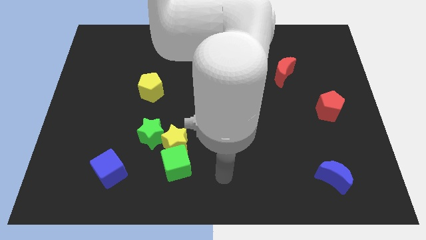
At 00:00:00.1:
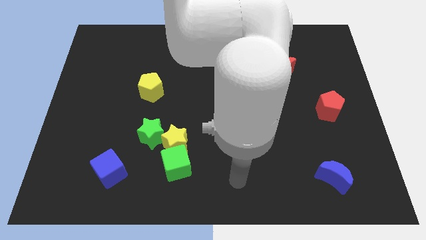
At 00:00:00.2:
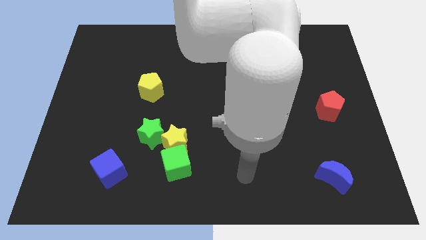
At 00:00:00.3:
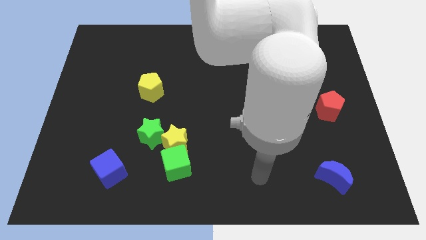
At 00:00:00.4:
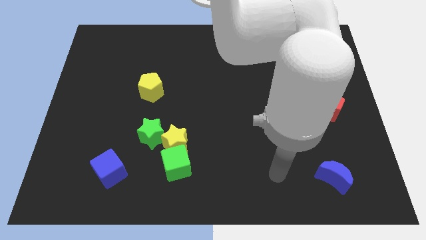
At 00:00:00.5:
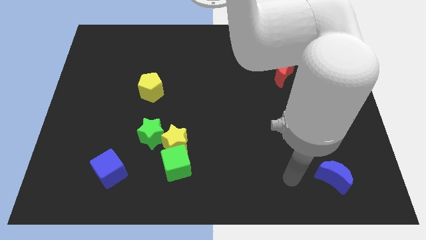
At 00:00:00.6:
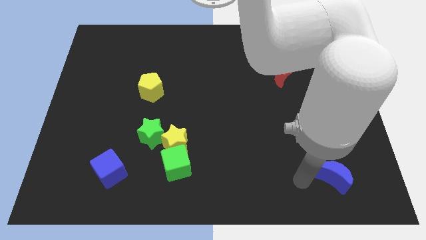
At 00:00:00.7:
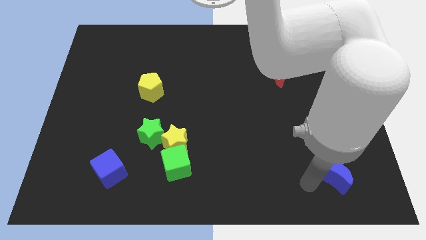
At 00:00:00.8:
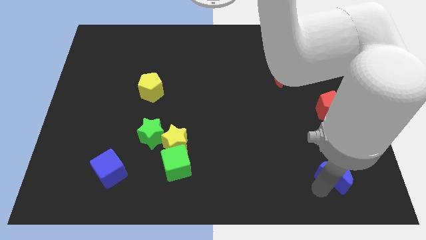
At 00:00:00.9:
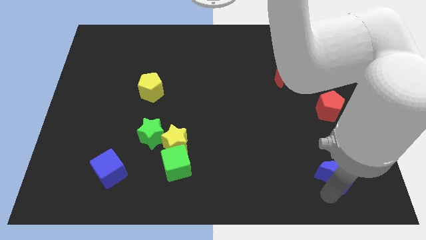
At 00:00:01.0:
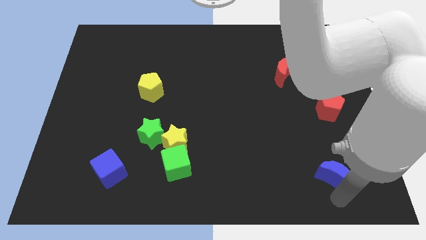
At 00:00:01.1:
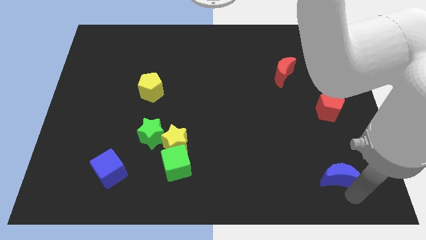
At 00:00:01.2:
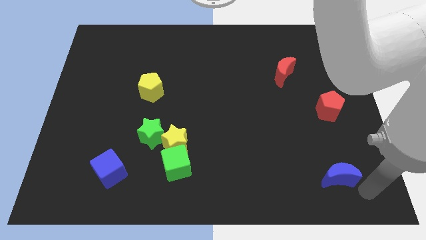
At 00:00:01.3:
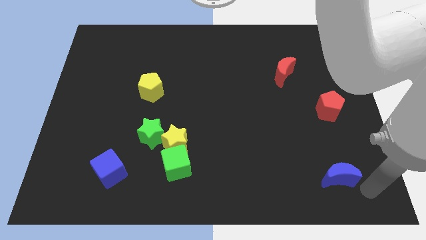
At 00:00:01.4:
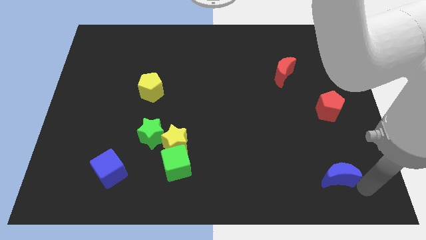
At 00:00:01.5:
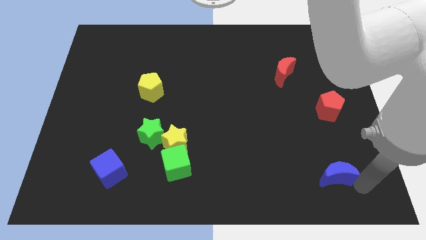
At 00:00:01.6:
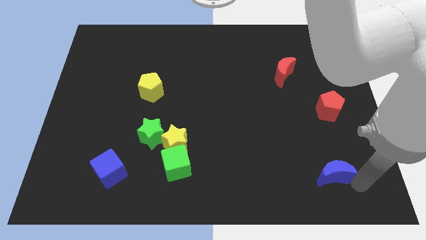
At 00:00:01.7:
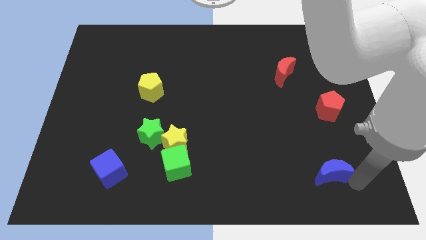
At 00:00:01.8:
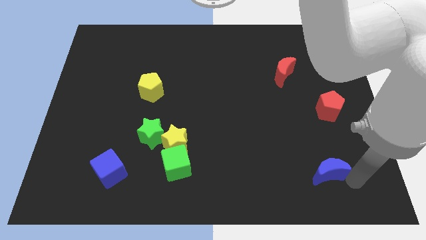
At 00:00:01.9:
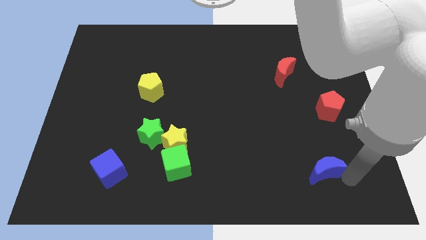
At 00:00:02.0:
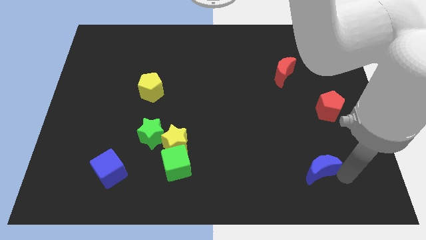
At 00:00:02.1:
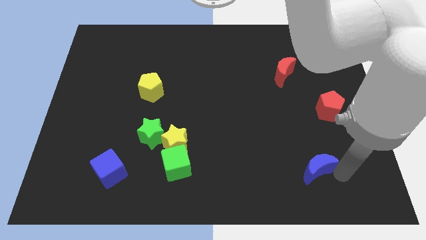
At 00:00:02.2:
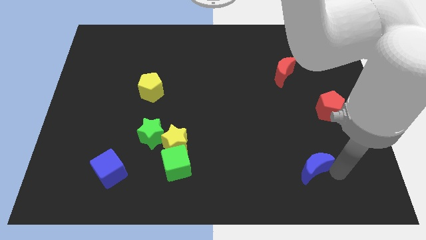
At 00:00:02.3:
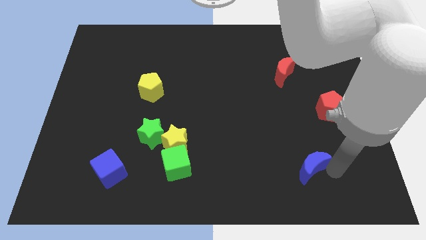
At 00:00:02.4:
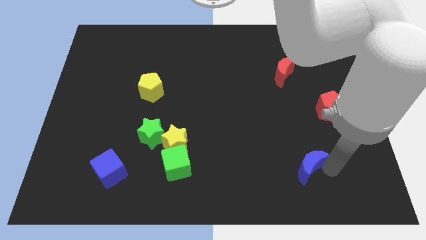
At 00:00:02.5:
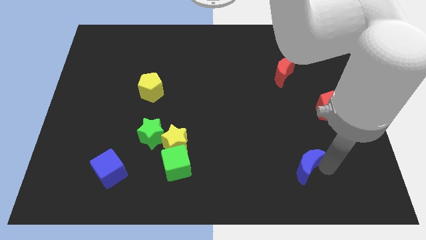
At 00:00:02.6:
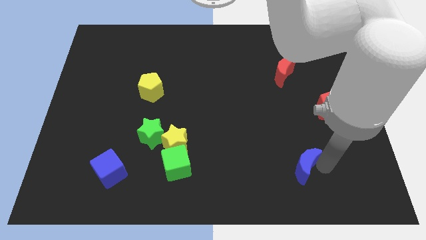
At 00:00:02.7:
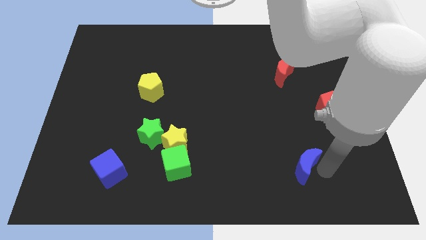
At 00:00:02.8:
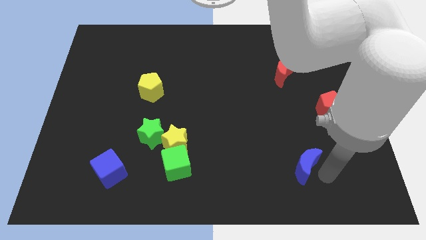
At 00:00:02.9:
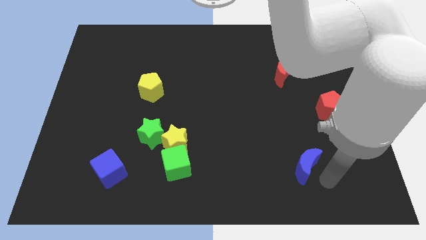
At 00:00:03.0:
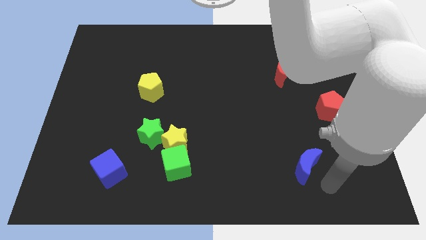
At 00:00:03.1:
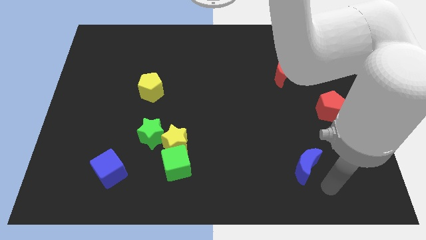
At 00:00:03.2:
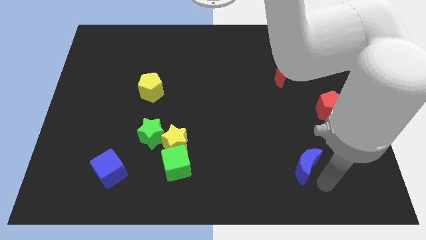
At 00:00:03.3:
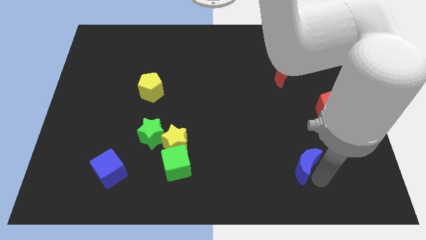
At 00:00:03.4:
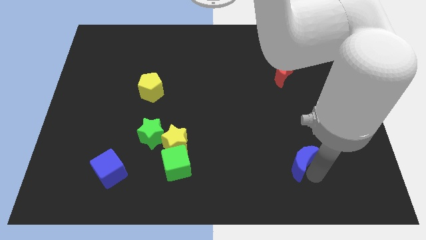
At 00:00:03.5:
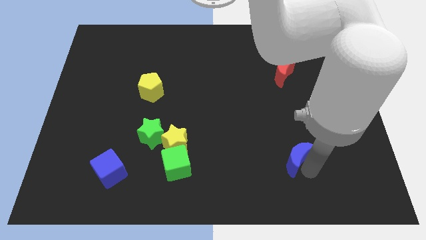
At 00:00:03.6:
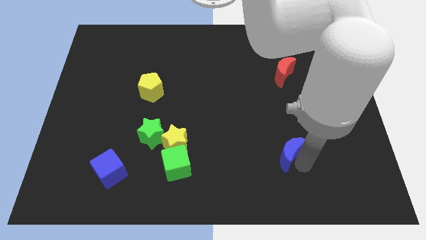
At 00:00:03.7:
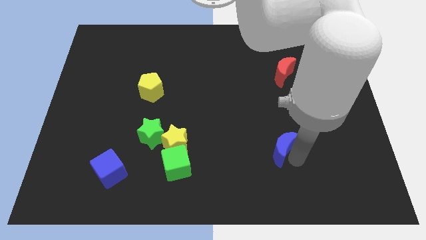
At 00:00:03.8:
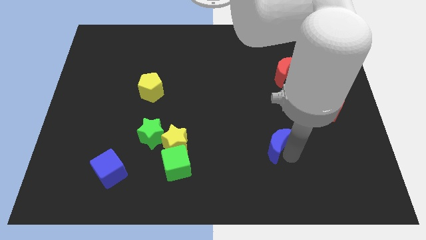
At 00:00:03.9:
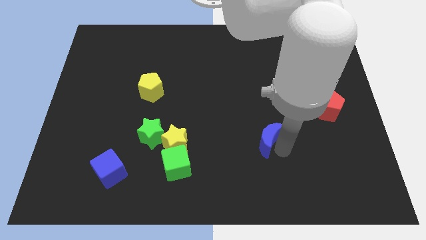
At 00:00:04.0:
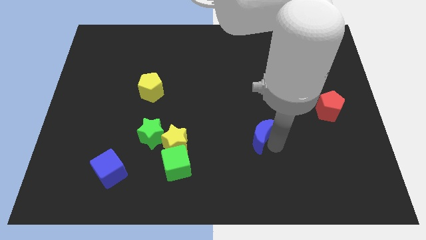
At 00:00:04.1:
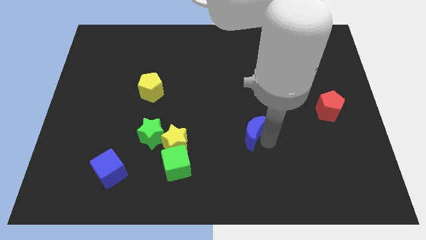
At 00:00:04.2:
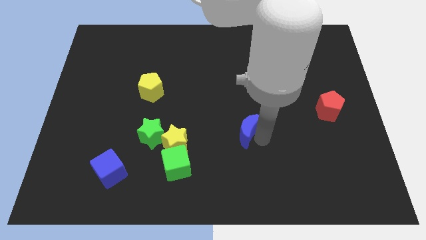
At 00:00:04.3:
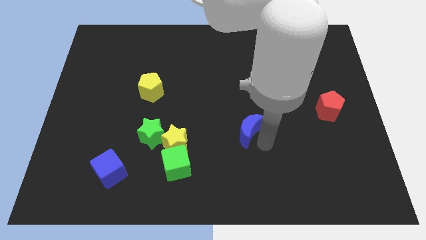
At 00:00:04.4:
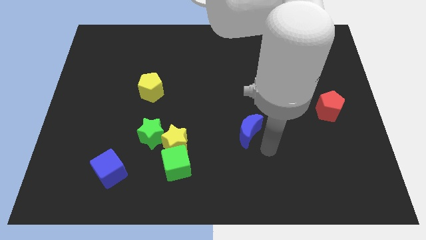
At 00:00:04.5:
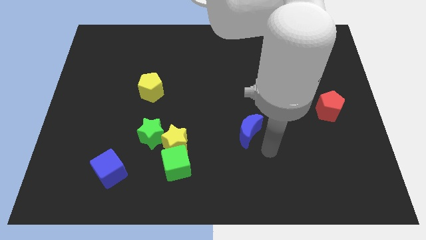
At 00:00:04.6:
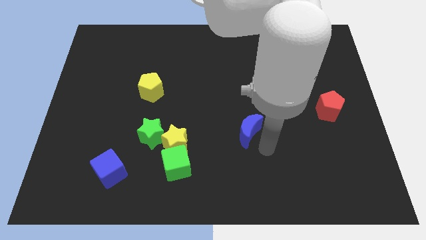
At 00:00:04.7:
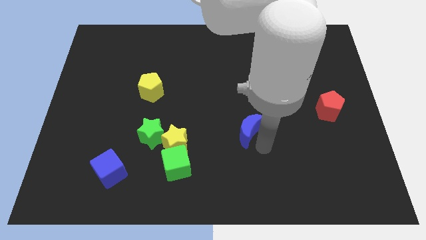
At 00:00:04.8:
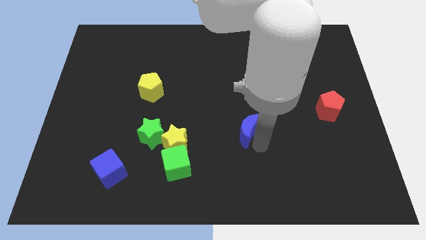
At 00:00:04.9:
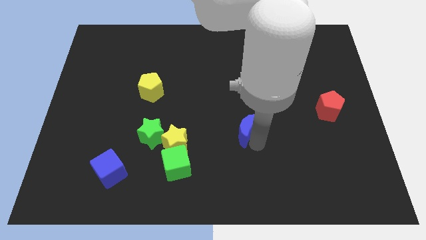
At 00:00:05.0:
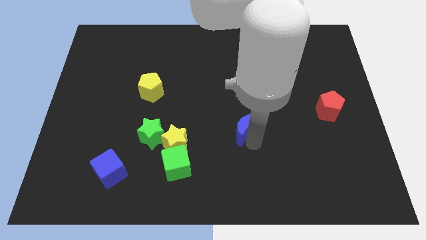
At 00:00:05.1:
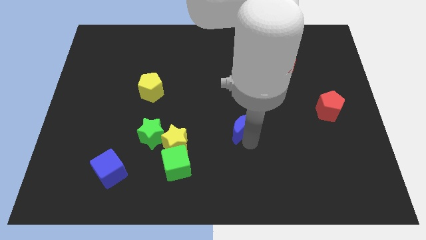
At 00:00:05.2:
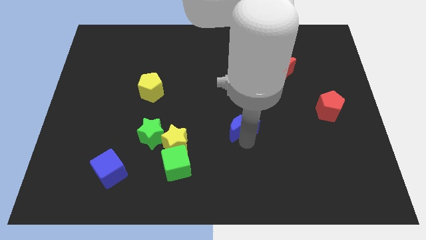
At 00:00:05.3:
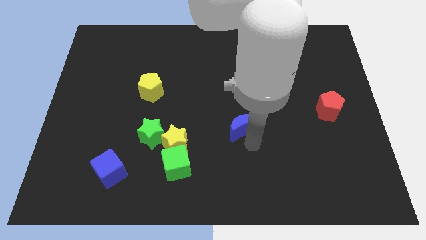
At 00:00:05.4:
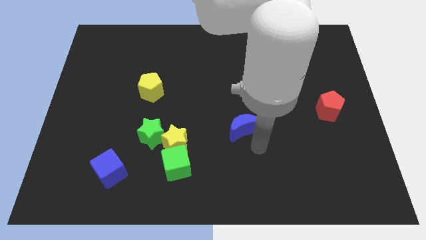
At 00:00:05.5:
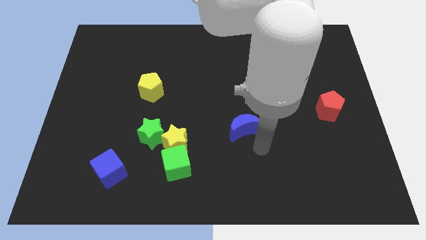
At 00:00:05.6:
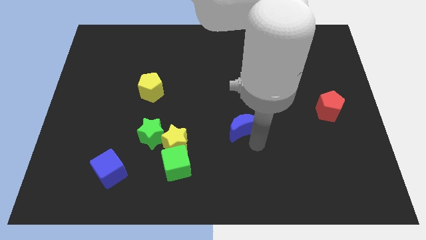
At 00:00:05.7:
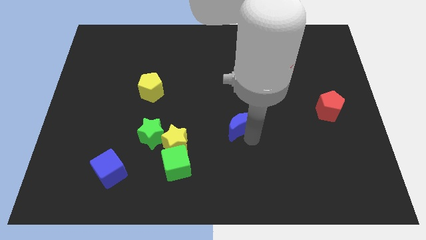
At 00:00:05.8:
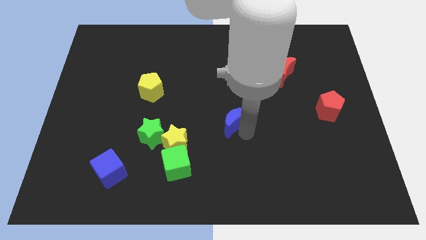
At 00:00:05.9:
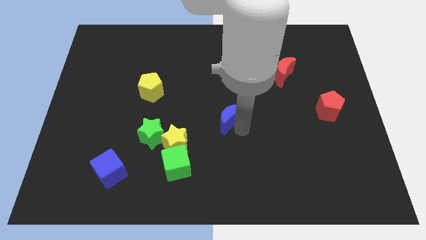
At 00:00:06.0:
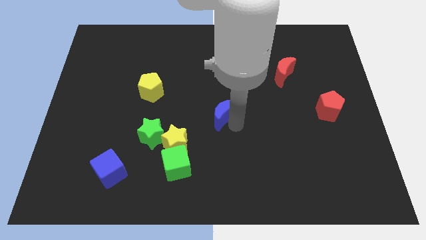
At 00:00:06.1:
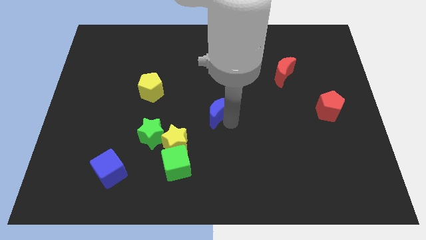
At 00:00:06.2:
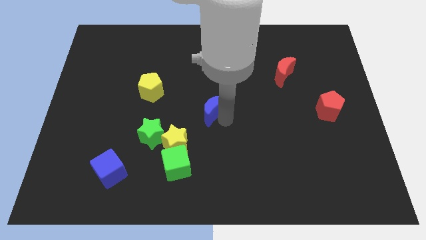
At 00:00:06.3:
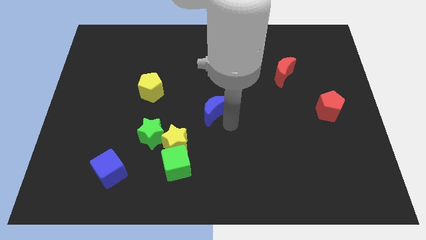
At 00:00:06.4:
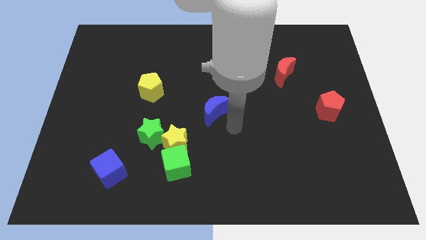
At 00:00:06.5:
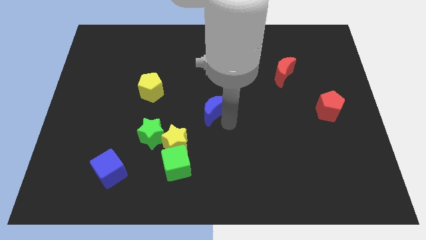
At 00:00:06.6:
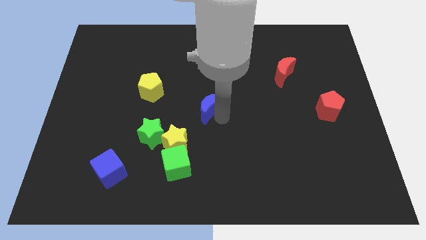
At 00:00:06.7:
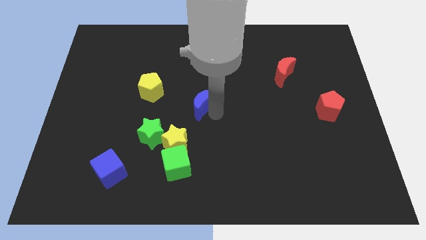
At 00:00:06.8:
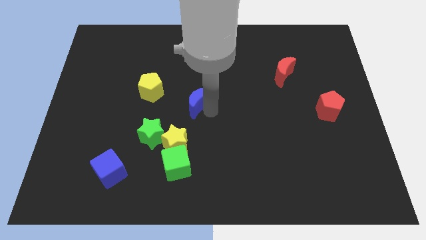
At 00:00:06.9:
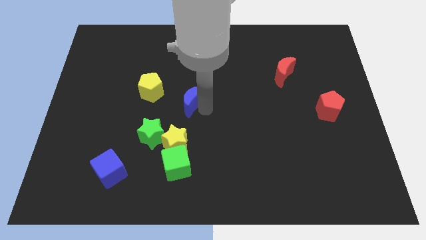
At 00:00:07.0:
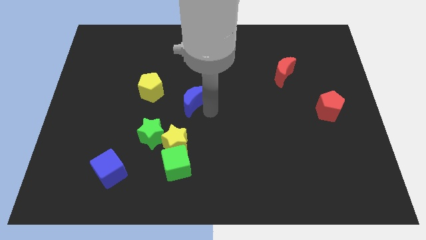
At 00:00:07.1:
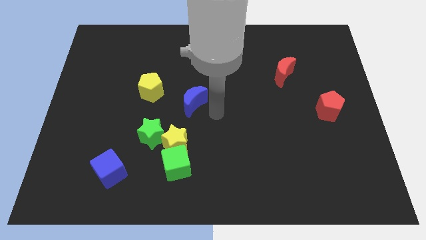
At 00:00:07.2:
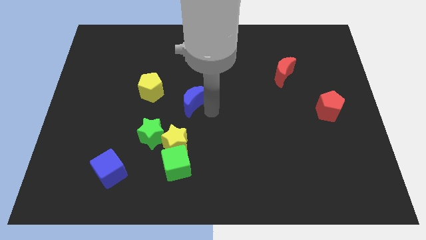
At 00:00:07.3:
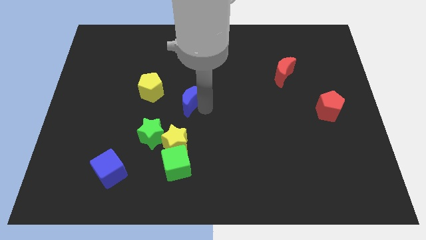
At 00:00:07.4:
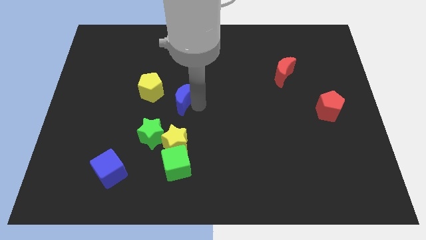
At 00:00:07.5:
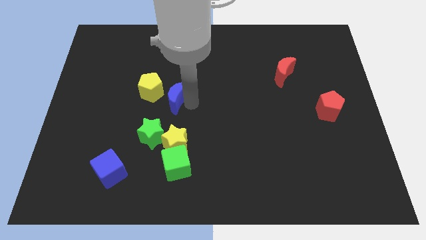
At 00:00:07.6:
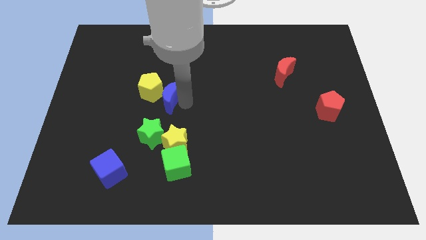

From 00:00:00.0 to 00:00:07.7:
slide the blue moon towards the yellow pentagon

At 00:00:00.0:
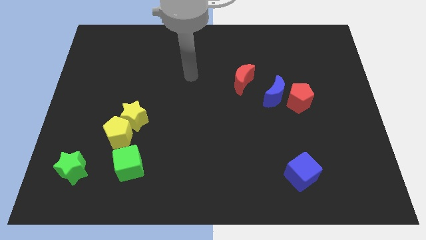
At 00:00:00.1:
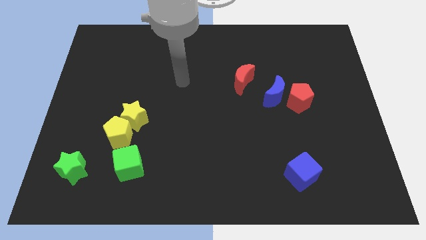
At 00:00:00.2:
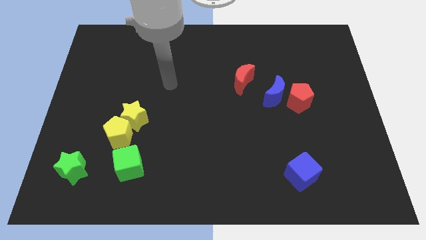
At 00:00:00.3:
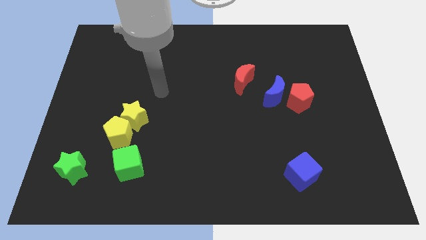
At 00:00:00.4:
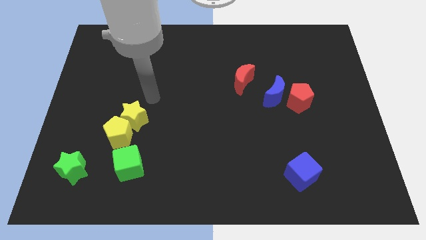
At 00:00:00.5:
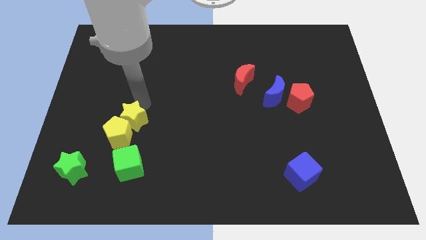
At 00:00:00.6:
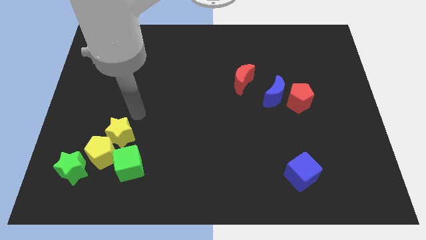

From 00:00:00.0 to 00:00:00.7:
move the yellow pentagon to the green star
